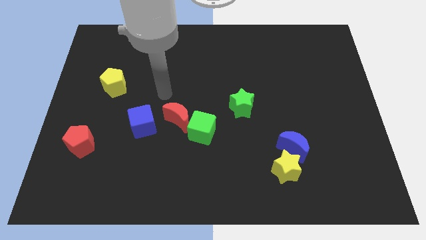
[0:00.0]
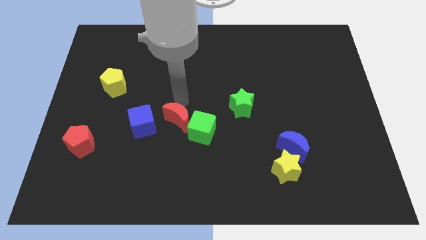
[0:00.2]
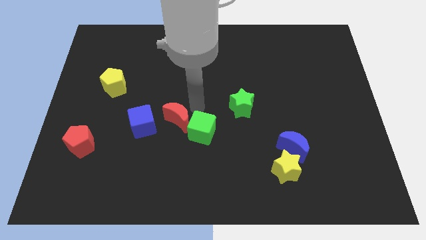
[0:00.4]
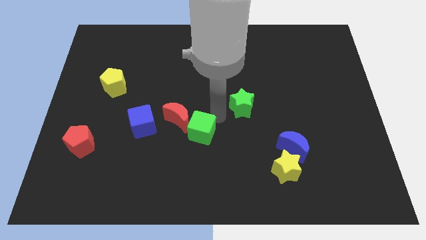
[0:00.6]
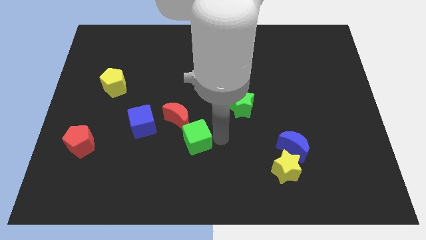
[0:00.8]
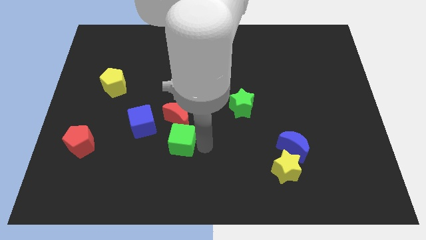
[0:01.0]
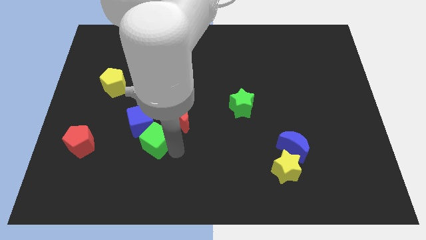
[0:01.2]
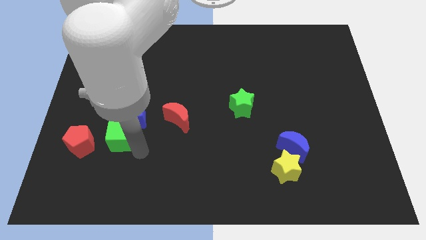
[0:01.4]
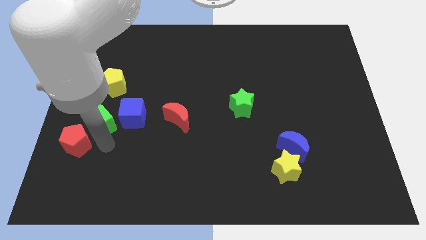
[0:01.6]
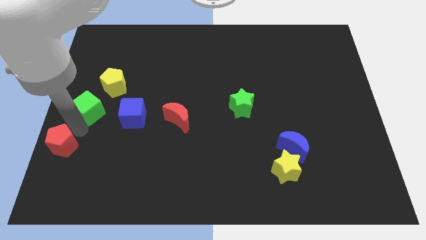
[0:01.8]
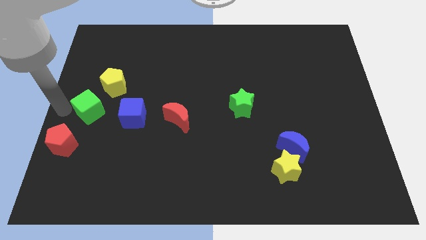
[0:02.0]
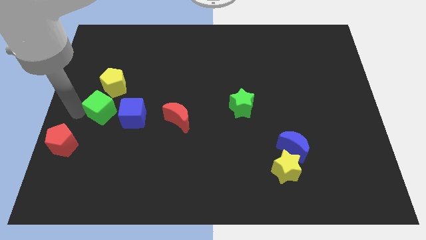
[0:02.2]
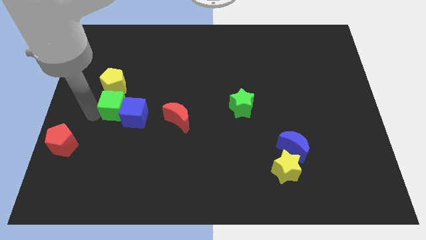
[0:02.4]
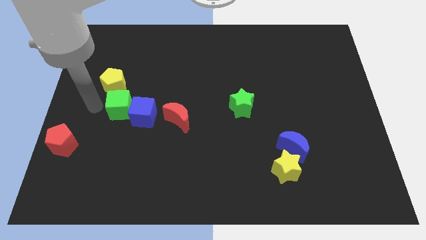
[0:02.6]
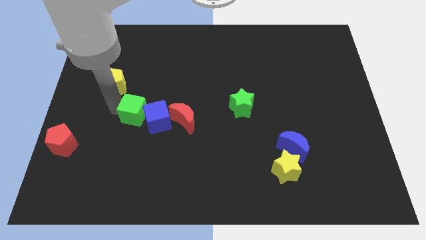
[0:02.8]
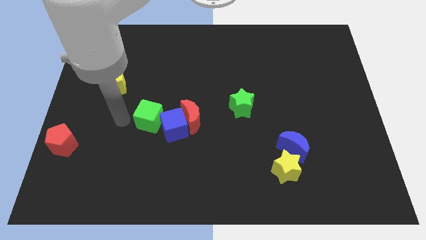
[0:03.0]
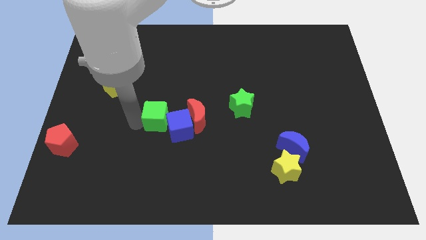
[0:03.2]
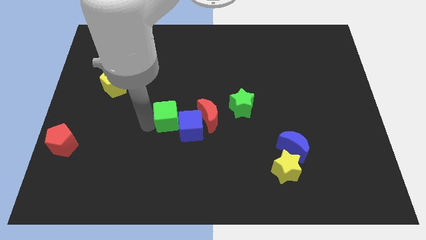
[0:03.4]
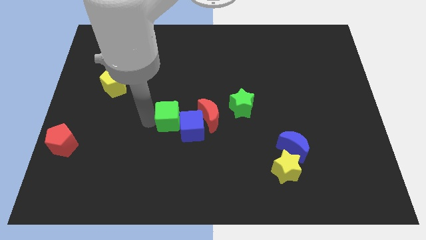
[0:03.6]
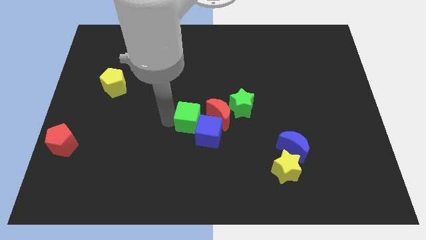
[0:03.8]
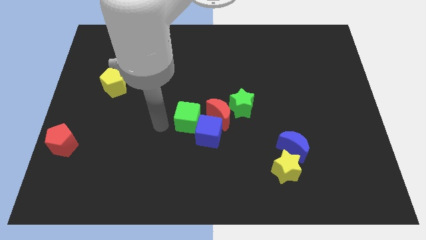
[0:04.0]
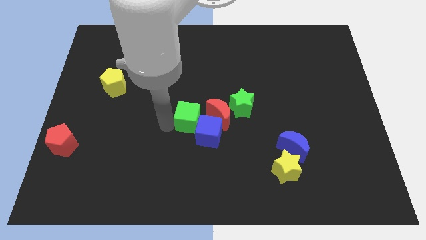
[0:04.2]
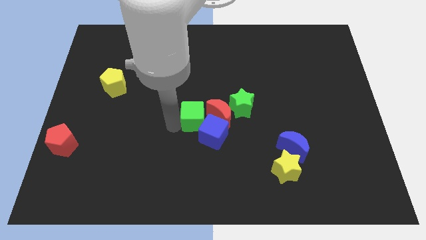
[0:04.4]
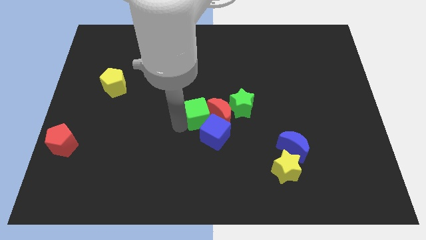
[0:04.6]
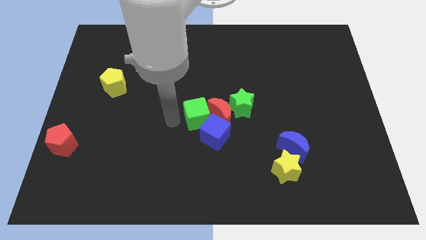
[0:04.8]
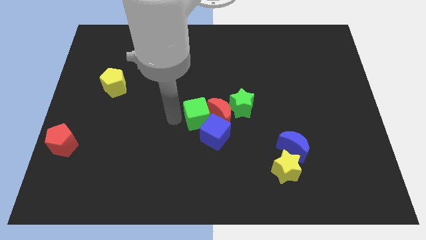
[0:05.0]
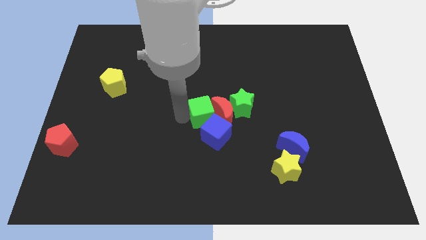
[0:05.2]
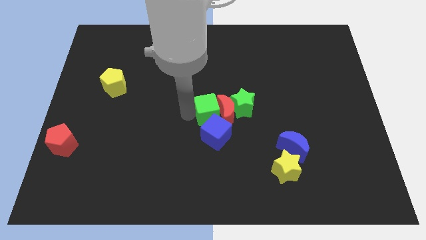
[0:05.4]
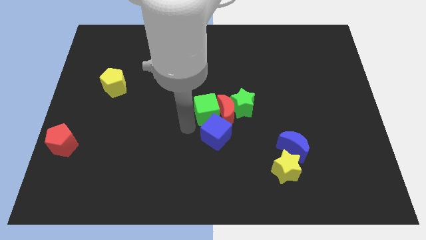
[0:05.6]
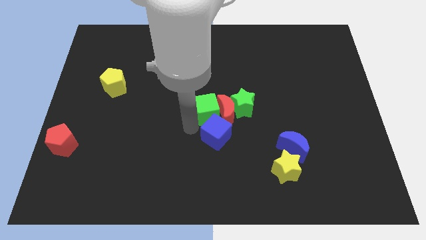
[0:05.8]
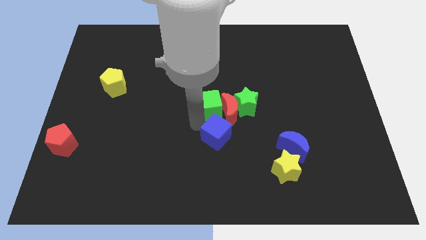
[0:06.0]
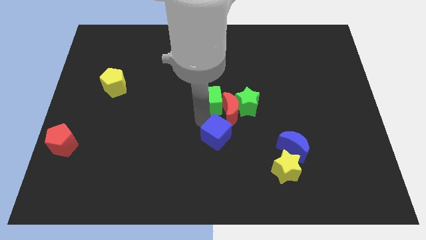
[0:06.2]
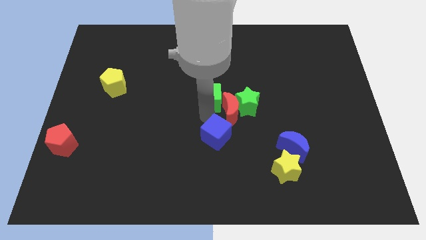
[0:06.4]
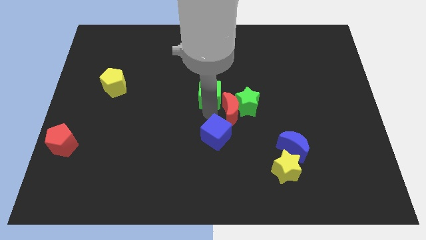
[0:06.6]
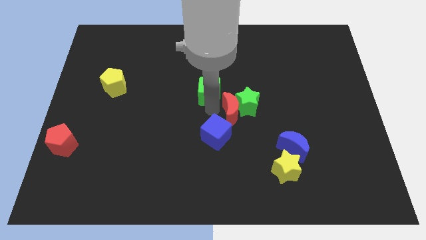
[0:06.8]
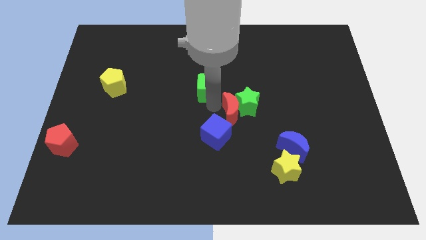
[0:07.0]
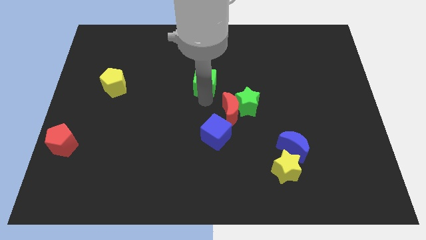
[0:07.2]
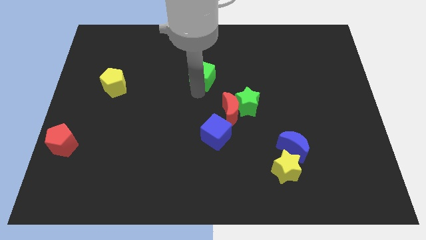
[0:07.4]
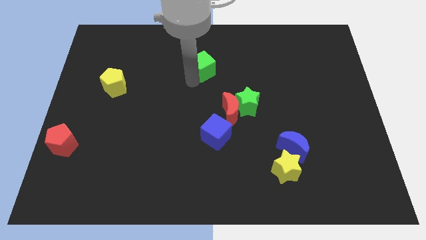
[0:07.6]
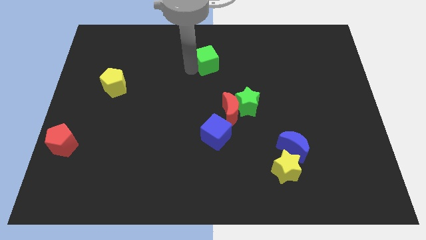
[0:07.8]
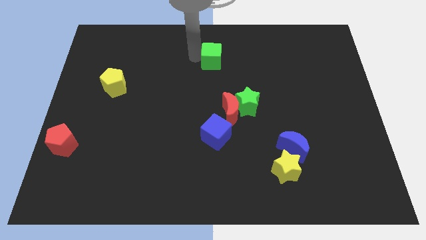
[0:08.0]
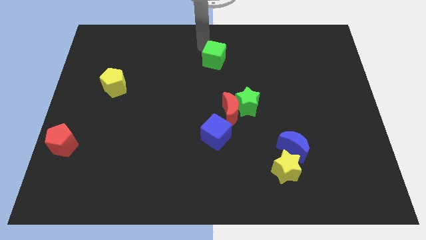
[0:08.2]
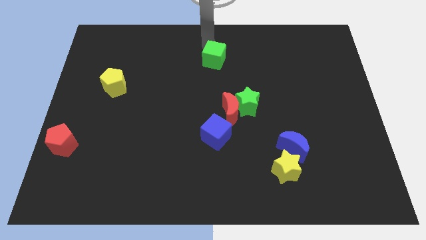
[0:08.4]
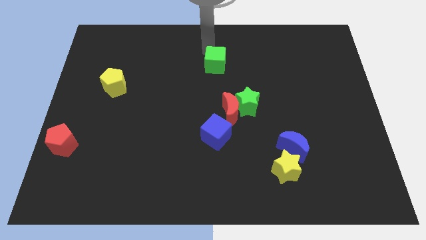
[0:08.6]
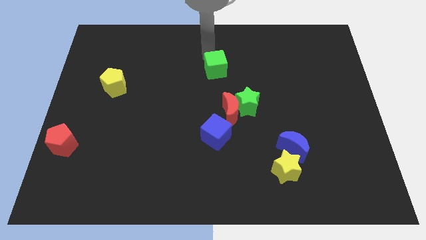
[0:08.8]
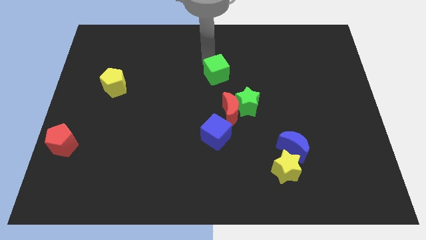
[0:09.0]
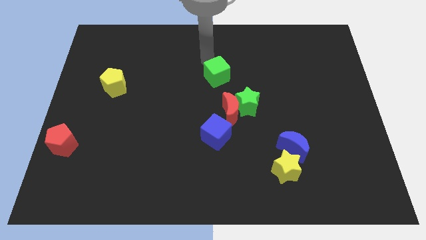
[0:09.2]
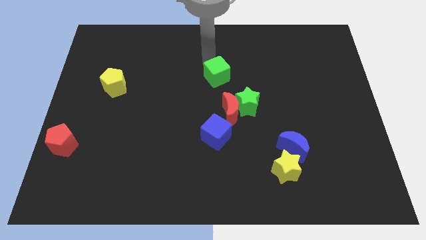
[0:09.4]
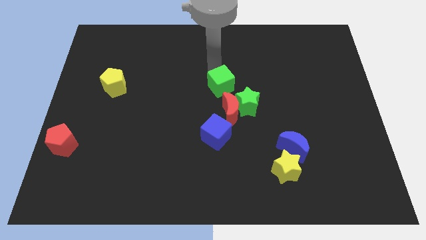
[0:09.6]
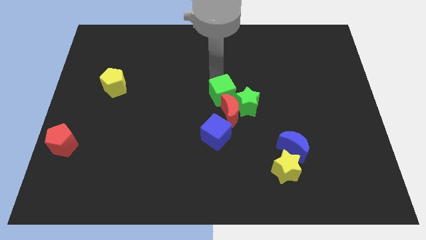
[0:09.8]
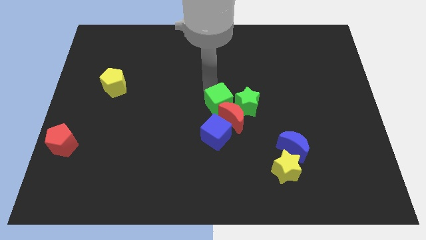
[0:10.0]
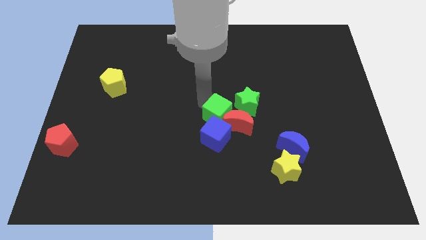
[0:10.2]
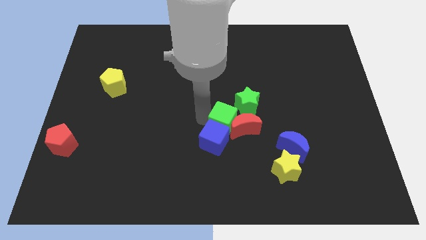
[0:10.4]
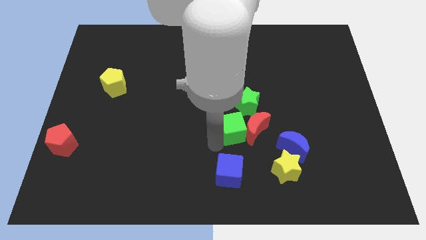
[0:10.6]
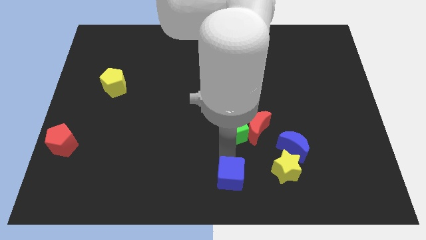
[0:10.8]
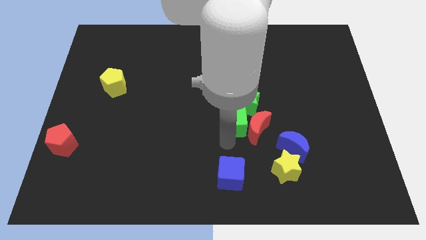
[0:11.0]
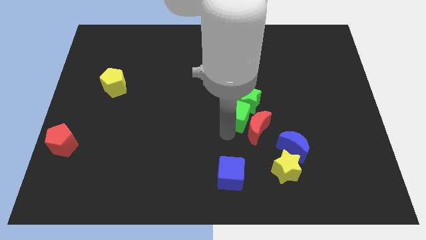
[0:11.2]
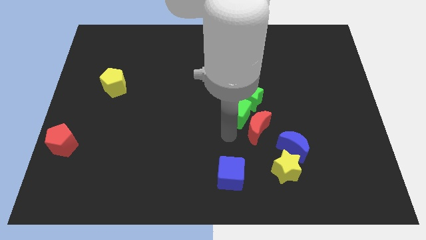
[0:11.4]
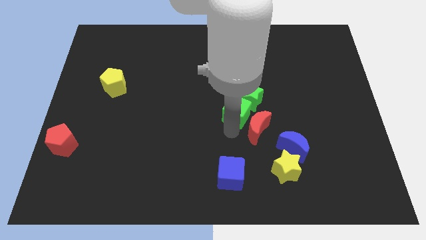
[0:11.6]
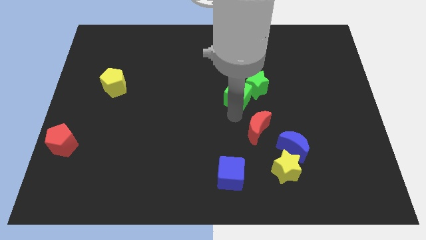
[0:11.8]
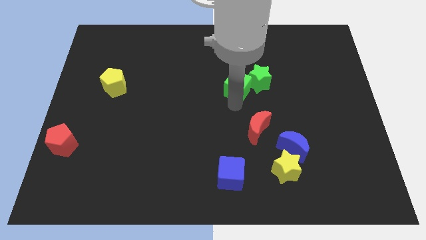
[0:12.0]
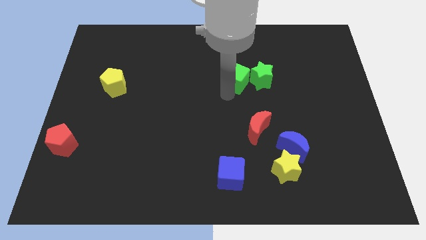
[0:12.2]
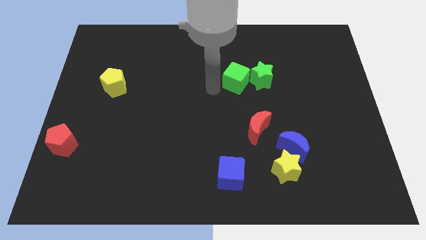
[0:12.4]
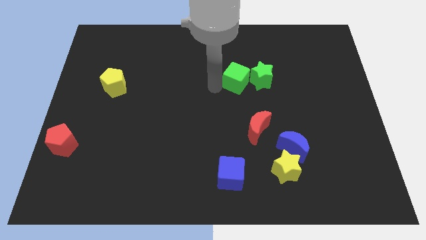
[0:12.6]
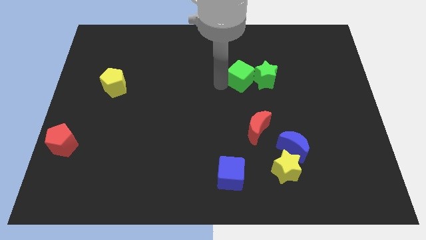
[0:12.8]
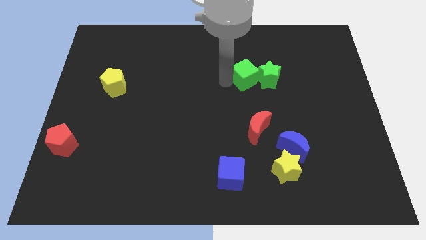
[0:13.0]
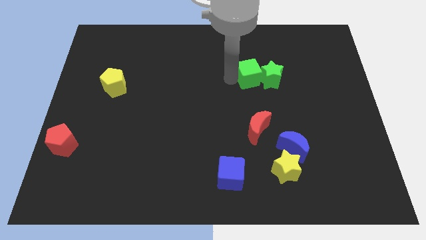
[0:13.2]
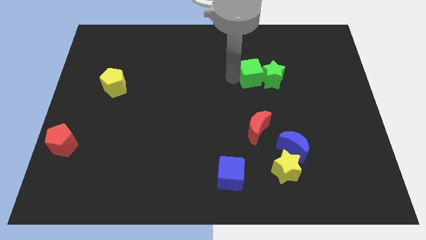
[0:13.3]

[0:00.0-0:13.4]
slide the green cube up and to the right diagonally

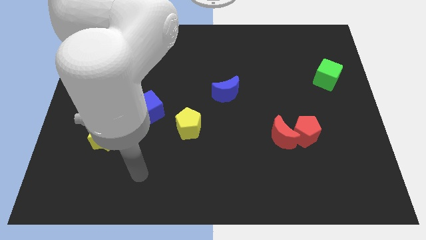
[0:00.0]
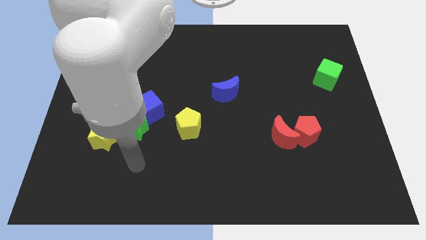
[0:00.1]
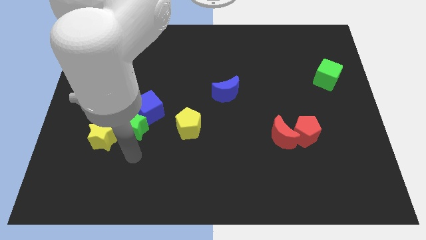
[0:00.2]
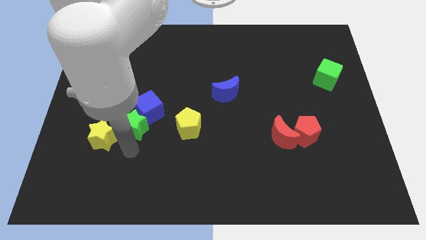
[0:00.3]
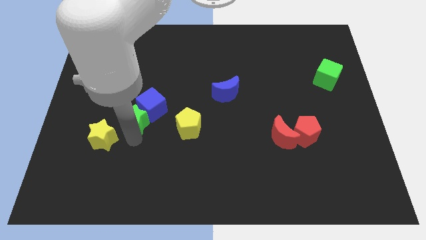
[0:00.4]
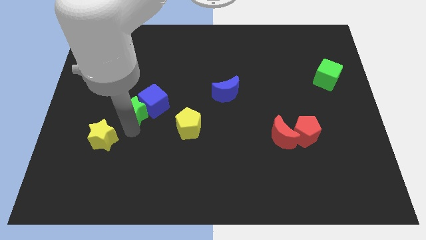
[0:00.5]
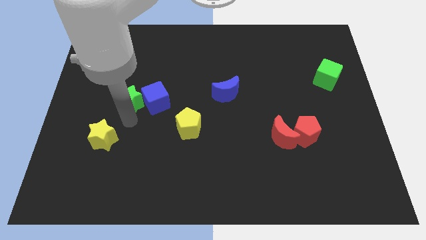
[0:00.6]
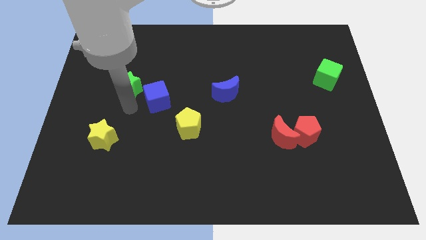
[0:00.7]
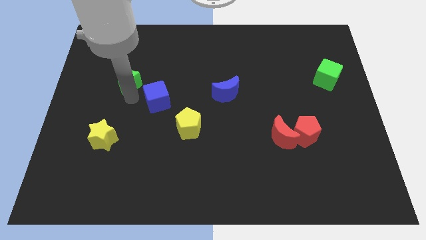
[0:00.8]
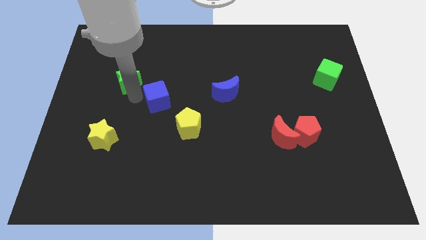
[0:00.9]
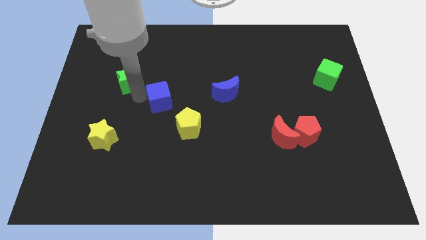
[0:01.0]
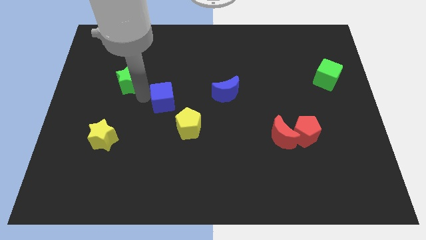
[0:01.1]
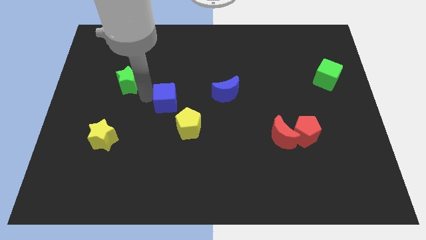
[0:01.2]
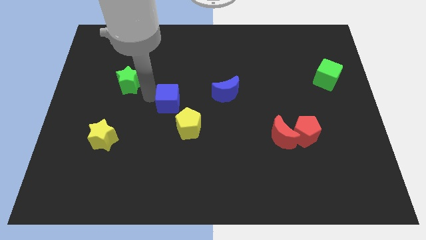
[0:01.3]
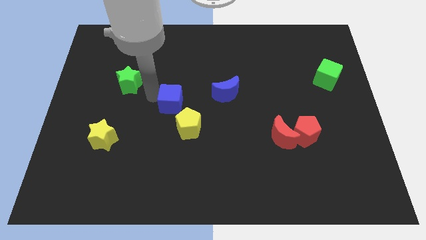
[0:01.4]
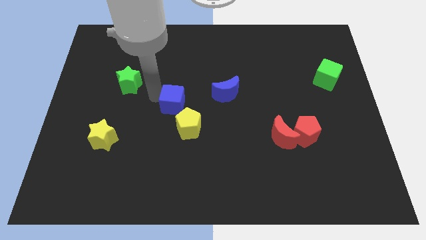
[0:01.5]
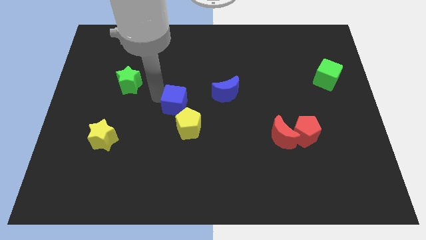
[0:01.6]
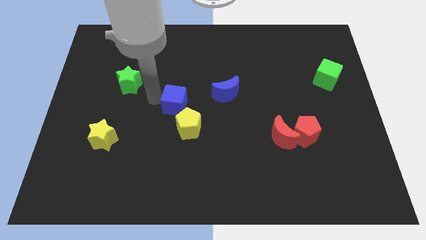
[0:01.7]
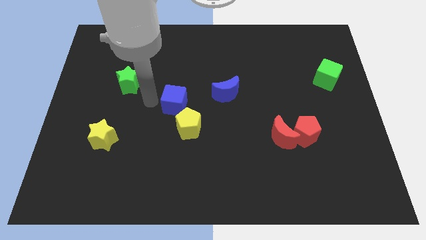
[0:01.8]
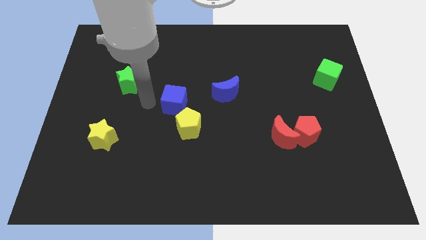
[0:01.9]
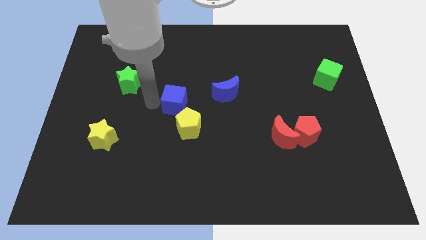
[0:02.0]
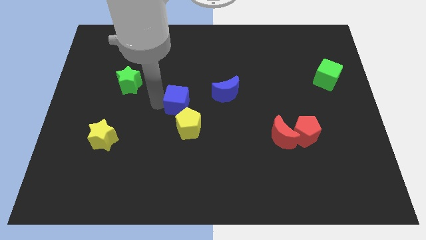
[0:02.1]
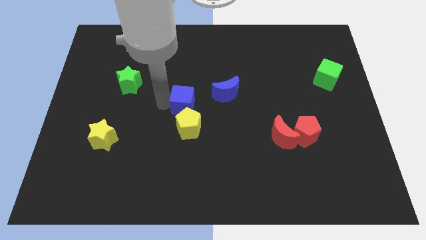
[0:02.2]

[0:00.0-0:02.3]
push the blue cube to the right a little
